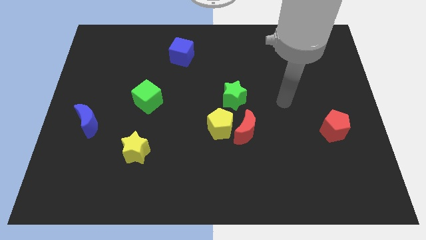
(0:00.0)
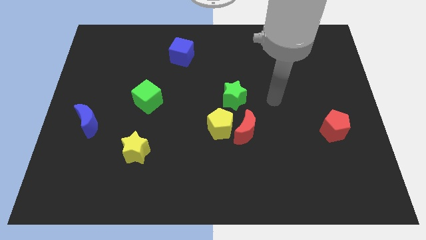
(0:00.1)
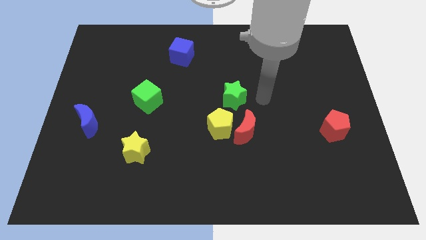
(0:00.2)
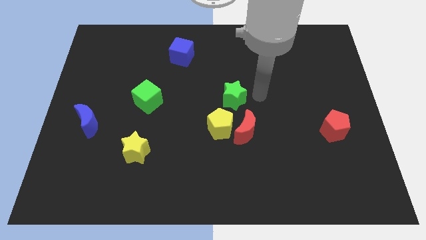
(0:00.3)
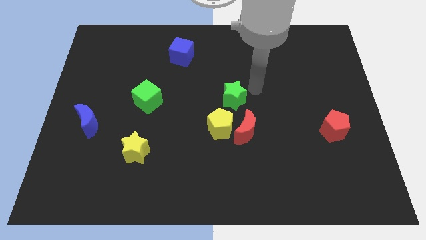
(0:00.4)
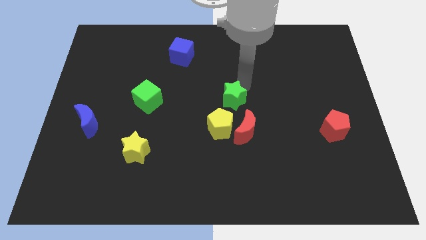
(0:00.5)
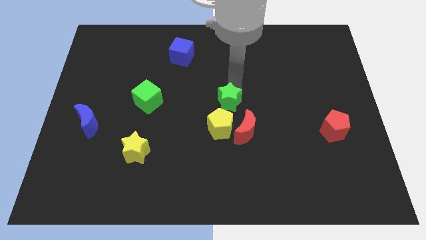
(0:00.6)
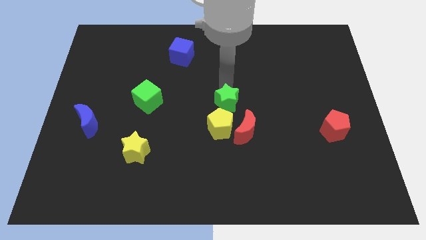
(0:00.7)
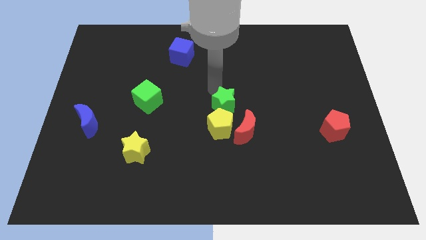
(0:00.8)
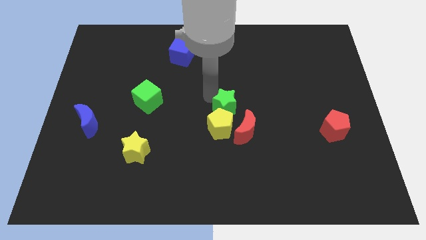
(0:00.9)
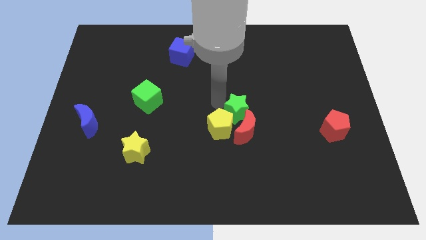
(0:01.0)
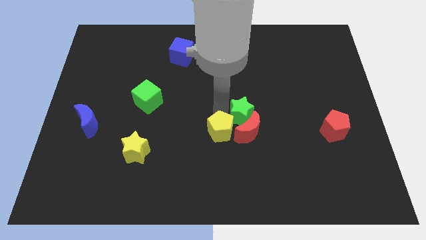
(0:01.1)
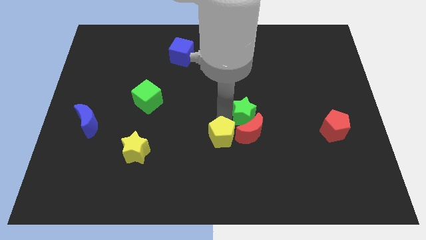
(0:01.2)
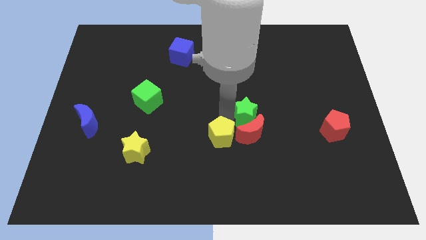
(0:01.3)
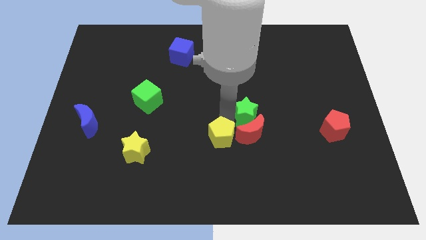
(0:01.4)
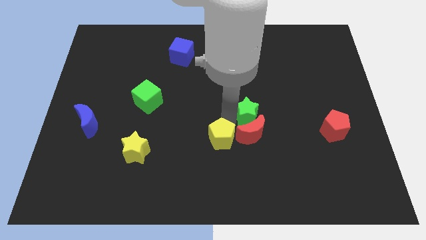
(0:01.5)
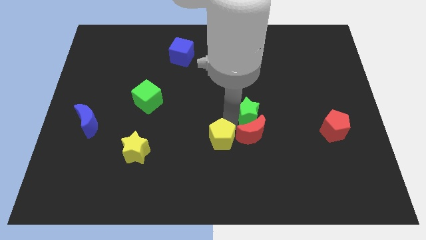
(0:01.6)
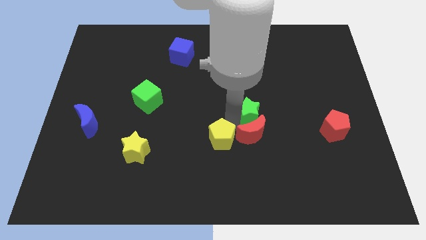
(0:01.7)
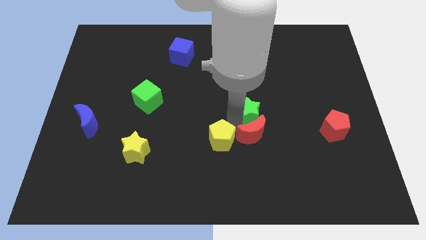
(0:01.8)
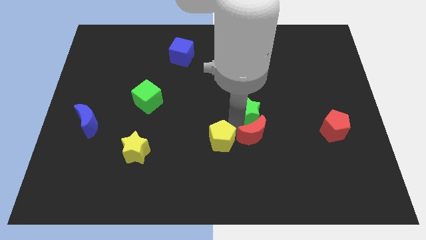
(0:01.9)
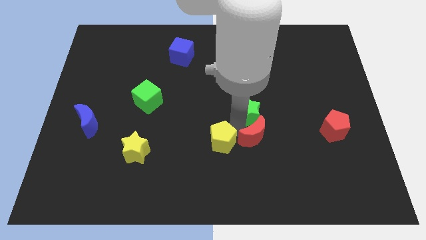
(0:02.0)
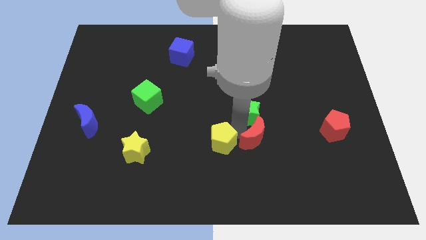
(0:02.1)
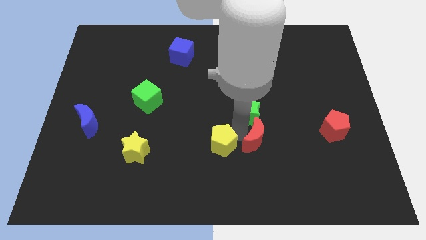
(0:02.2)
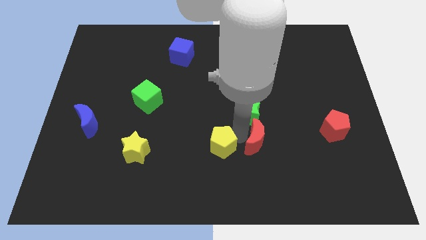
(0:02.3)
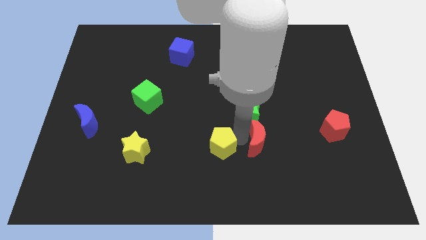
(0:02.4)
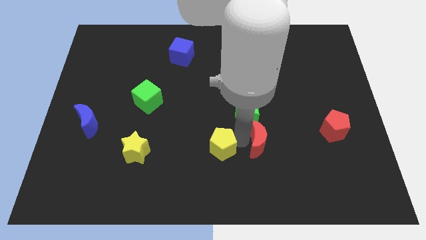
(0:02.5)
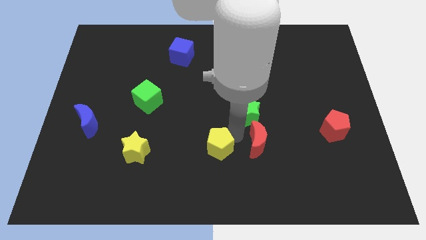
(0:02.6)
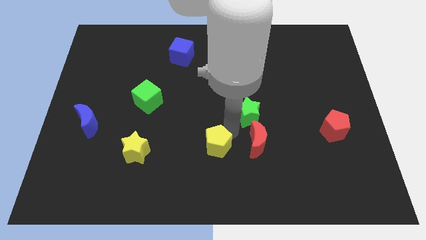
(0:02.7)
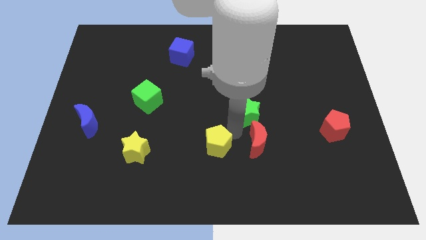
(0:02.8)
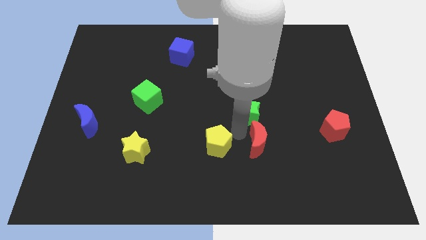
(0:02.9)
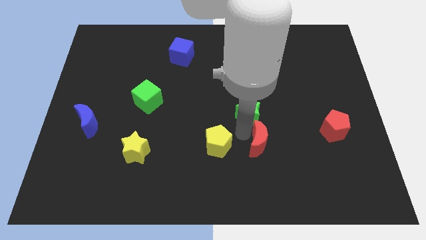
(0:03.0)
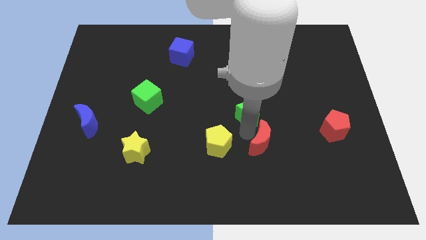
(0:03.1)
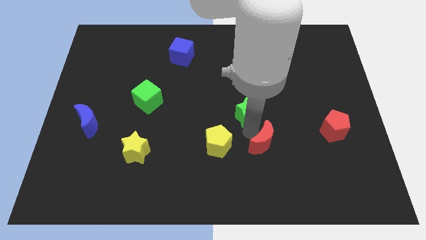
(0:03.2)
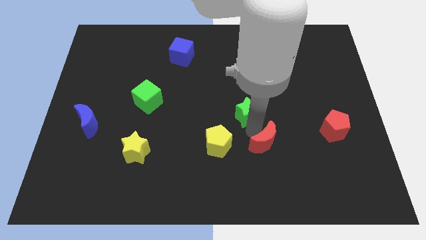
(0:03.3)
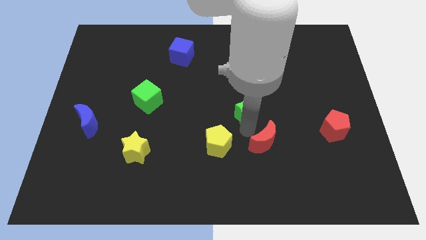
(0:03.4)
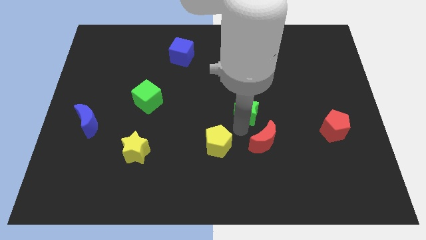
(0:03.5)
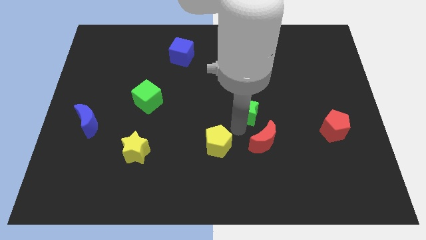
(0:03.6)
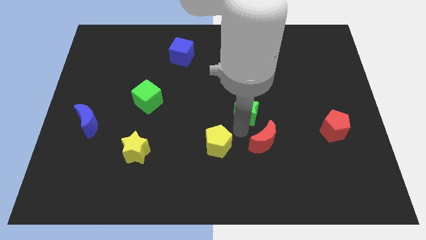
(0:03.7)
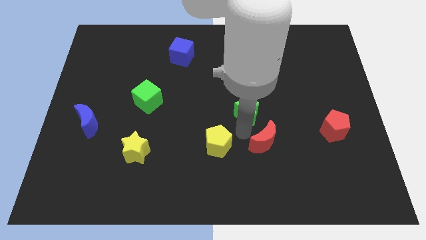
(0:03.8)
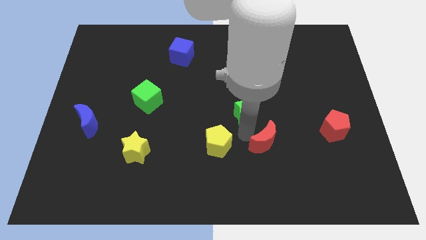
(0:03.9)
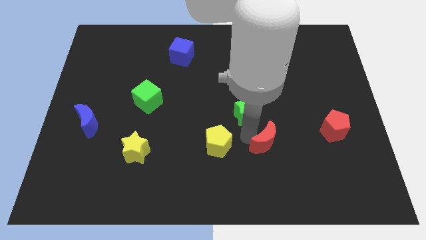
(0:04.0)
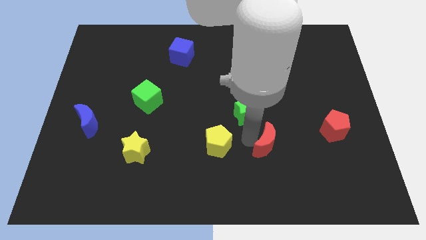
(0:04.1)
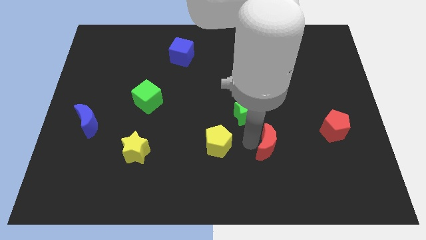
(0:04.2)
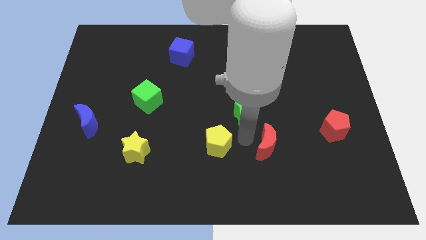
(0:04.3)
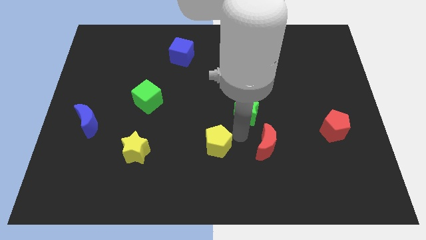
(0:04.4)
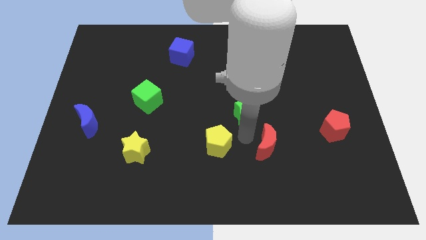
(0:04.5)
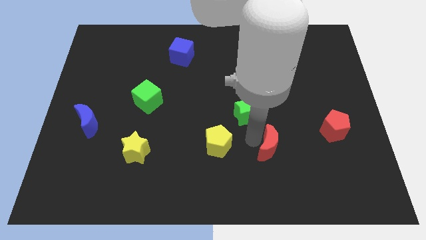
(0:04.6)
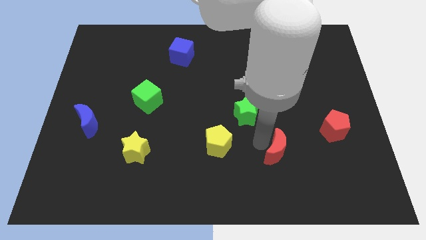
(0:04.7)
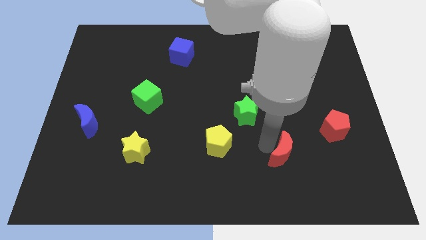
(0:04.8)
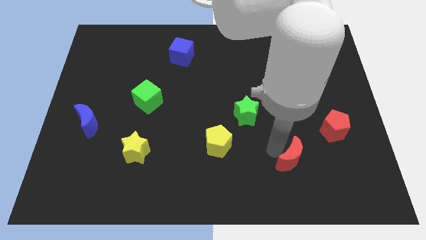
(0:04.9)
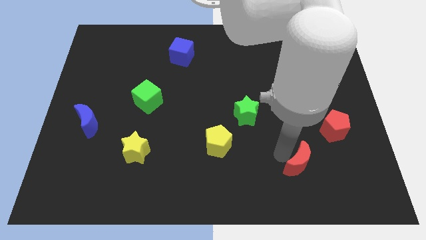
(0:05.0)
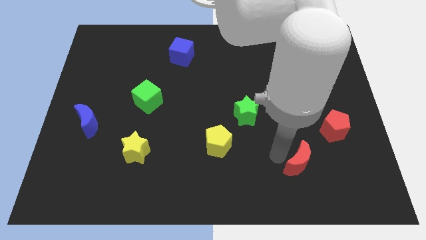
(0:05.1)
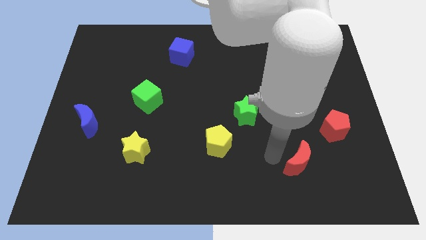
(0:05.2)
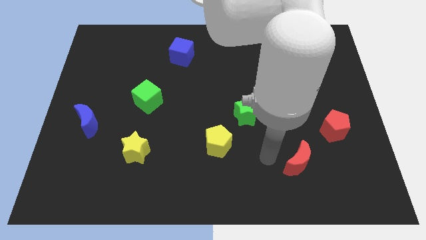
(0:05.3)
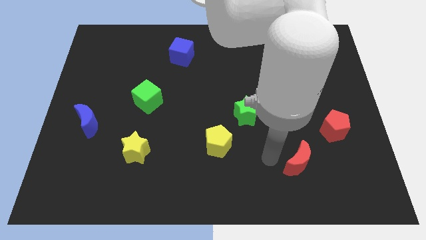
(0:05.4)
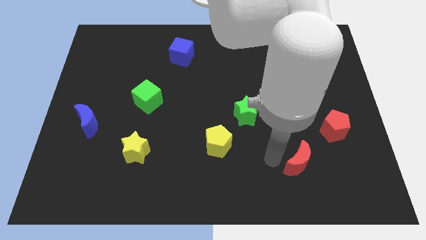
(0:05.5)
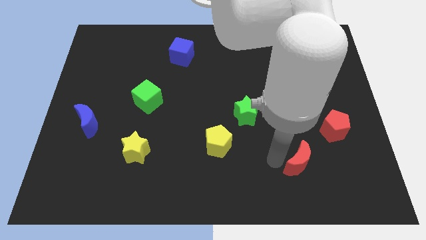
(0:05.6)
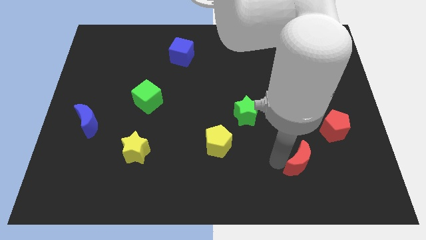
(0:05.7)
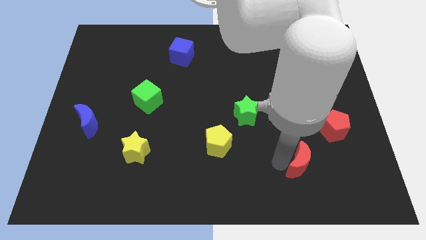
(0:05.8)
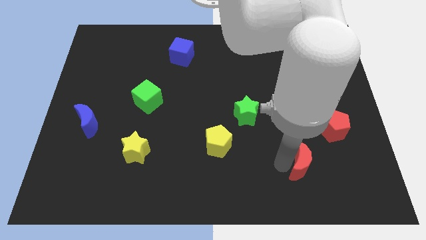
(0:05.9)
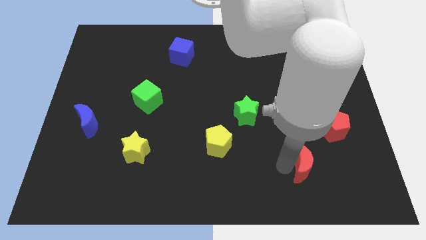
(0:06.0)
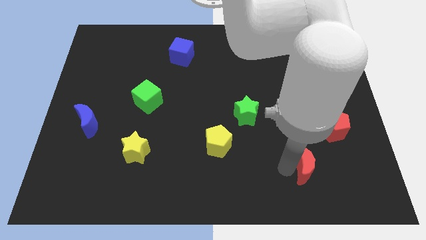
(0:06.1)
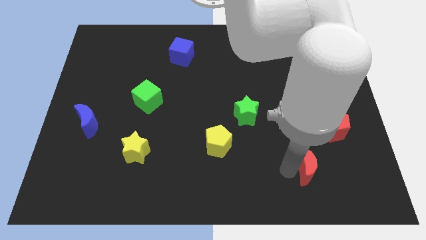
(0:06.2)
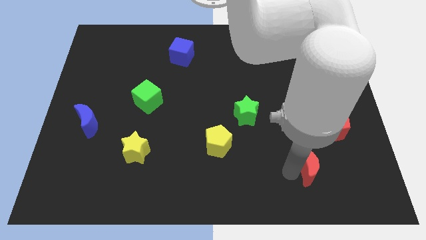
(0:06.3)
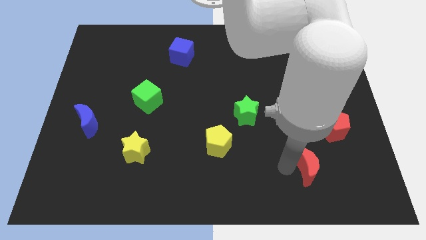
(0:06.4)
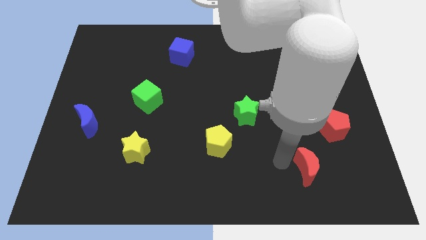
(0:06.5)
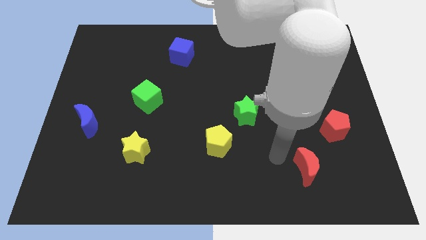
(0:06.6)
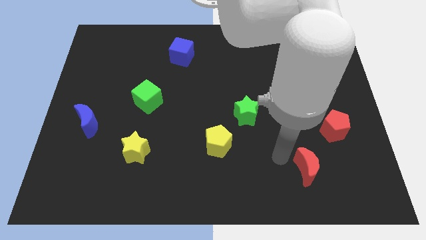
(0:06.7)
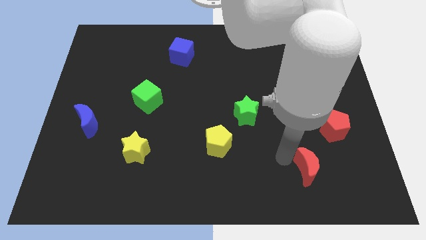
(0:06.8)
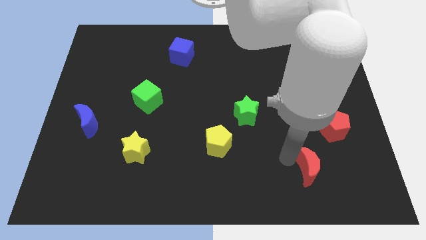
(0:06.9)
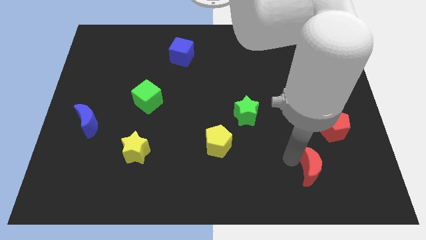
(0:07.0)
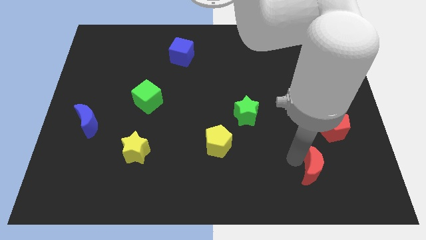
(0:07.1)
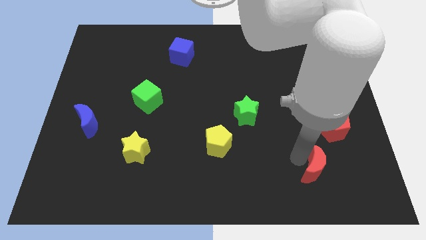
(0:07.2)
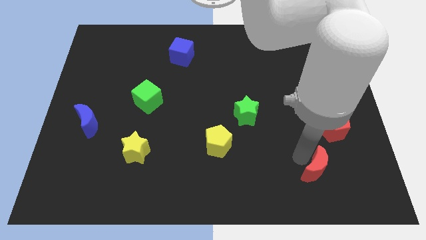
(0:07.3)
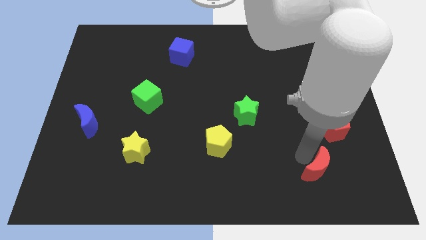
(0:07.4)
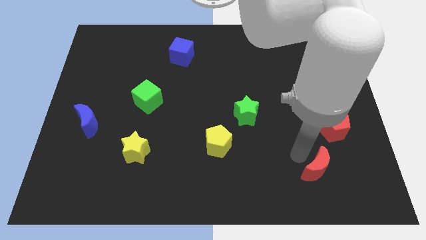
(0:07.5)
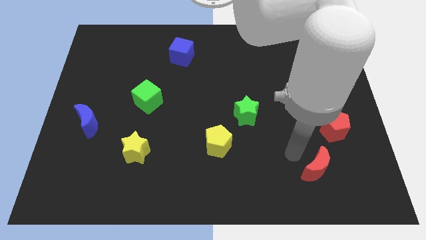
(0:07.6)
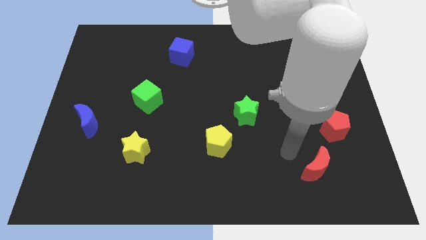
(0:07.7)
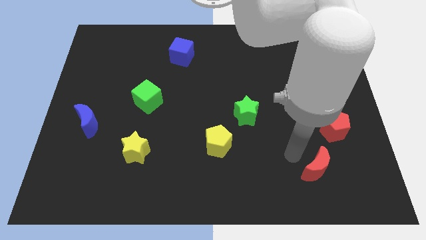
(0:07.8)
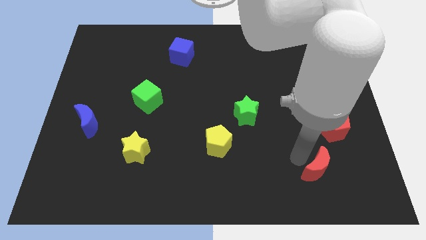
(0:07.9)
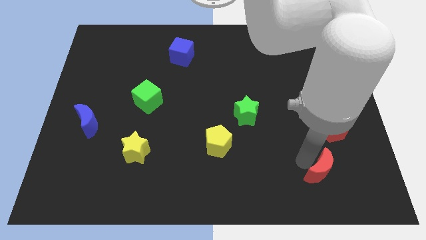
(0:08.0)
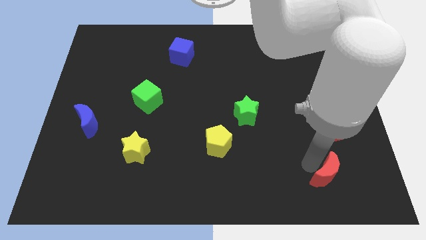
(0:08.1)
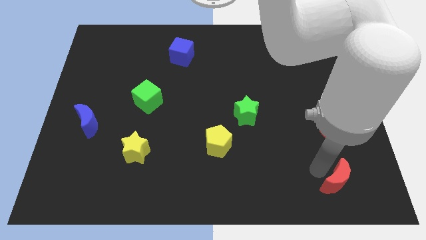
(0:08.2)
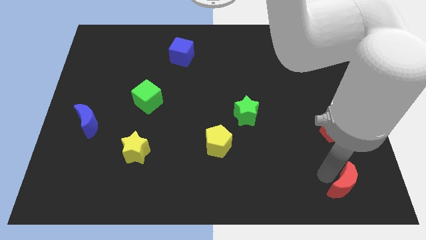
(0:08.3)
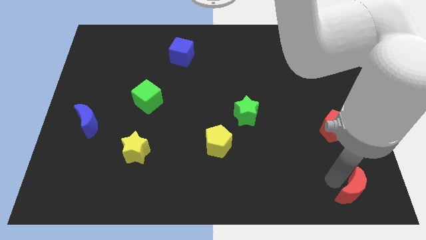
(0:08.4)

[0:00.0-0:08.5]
slide the red moon to the bottom right
